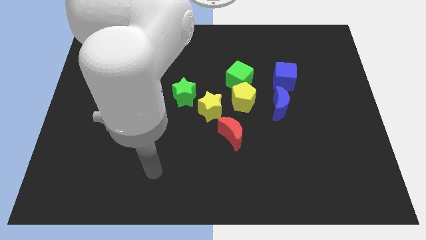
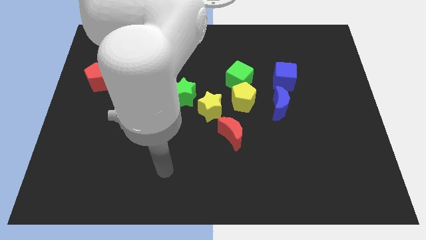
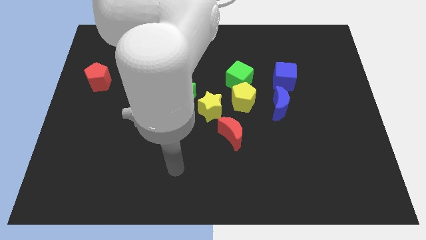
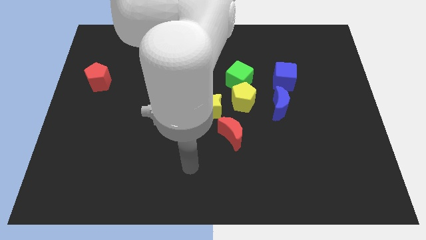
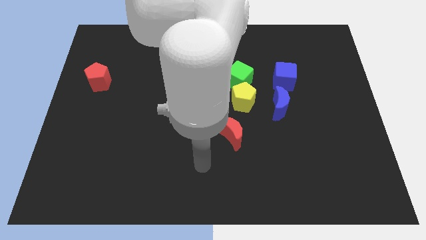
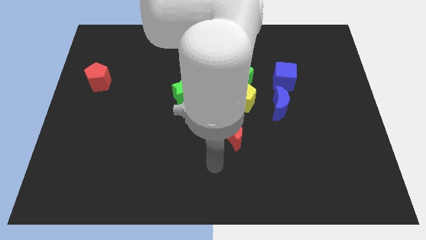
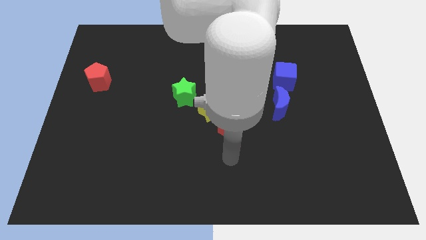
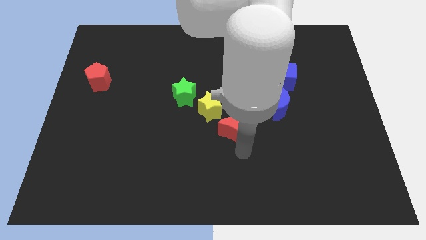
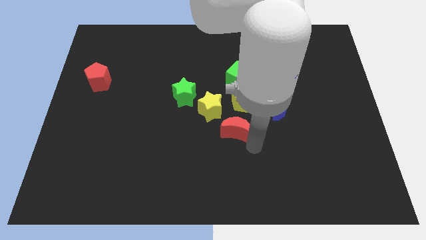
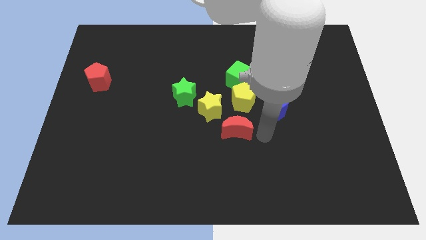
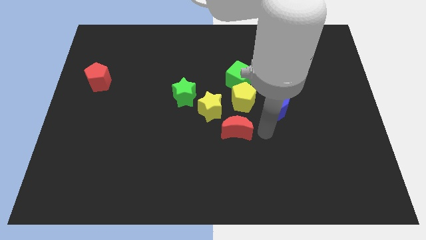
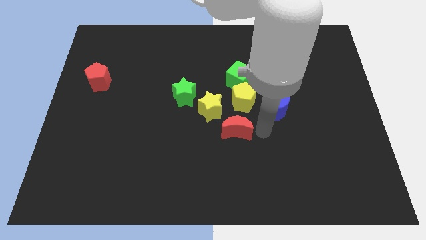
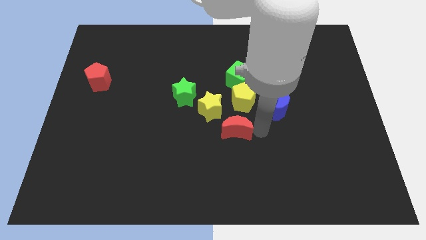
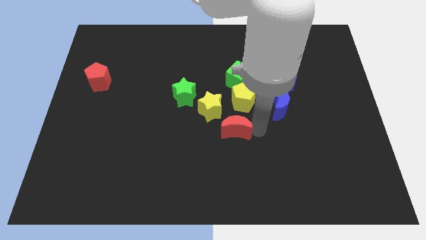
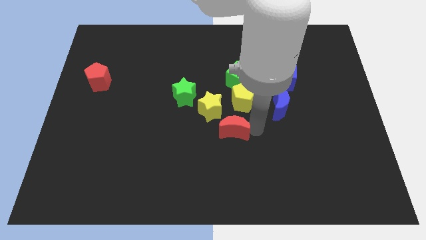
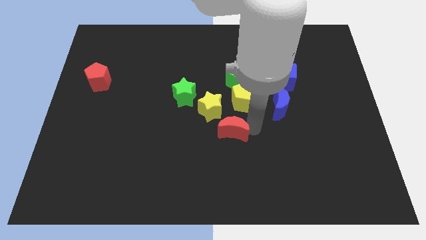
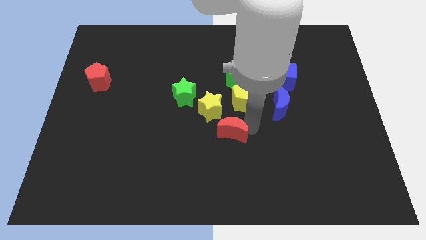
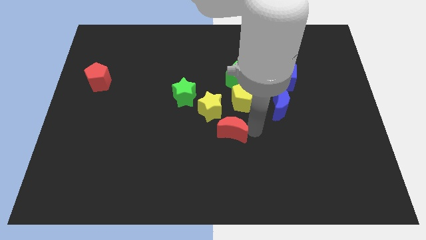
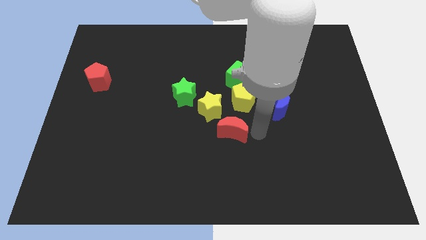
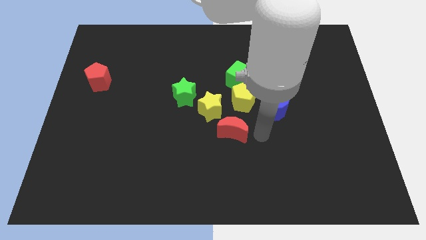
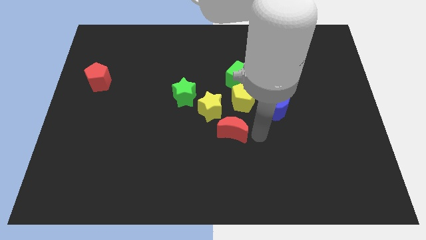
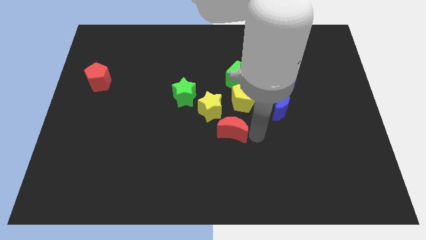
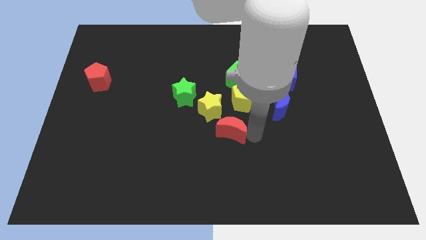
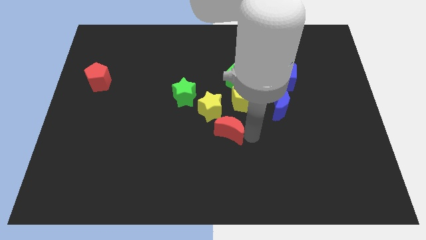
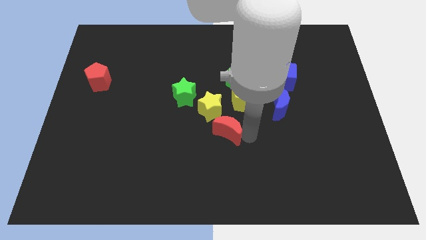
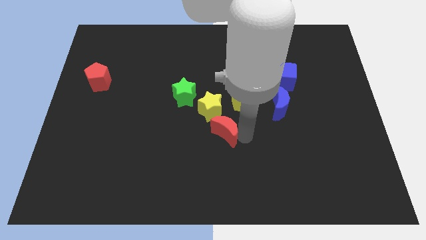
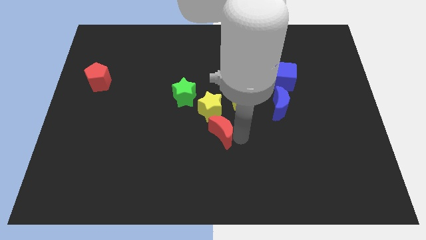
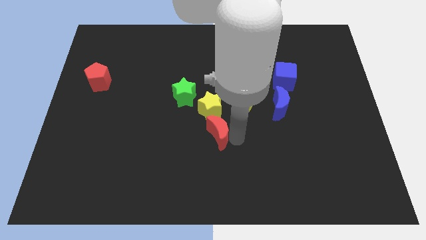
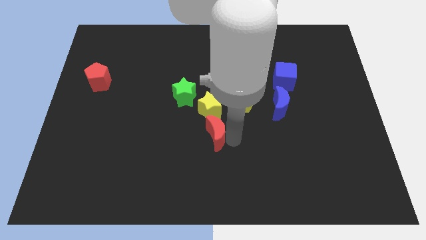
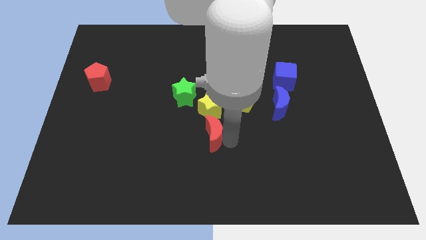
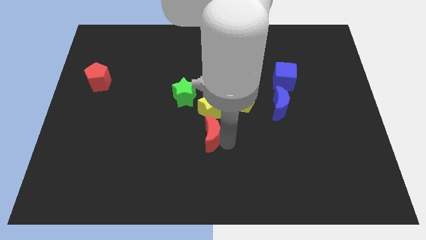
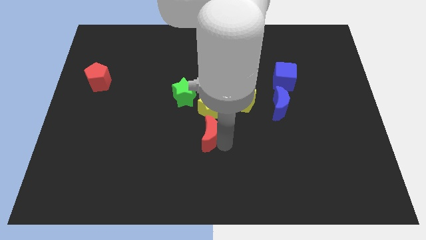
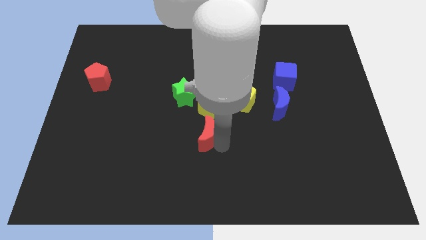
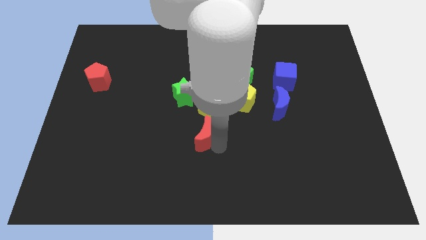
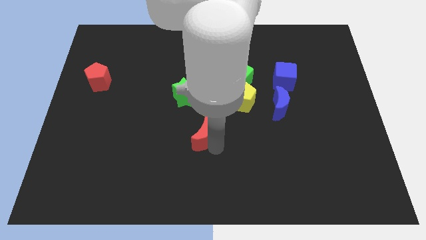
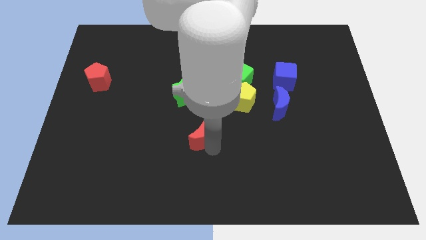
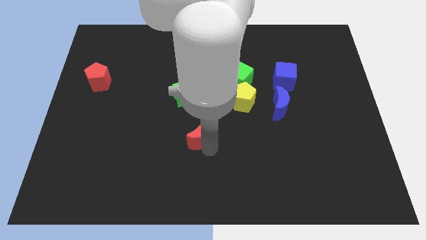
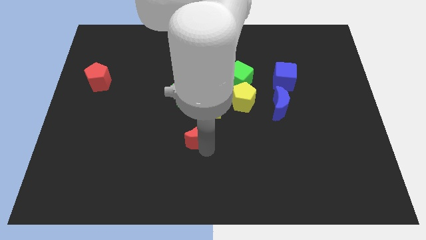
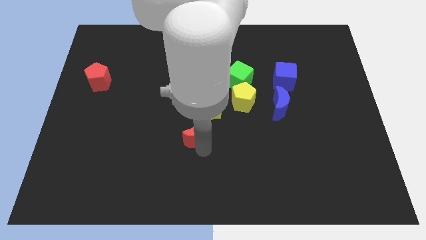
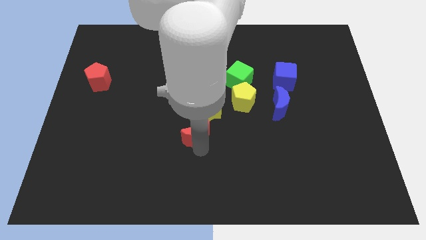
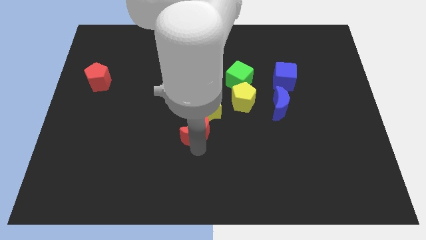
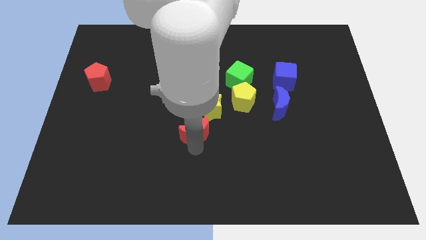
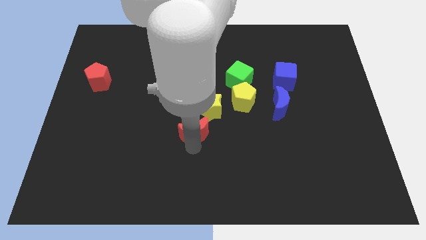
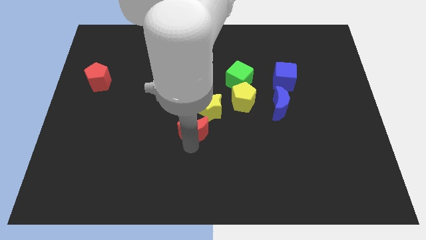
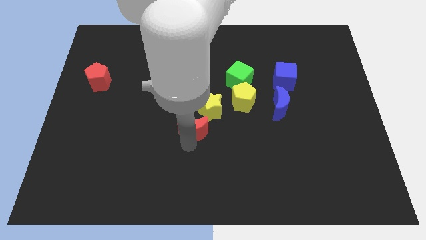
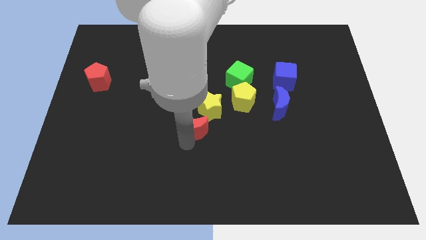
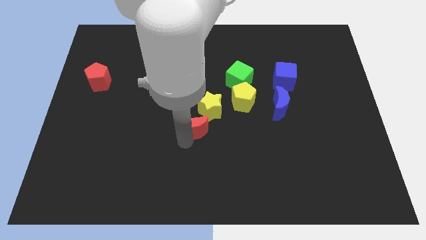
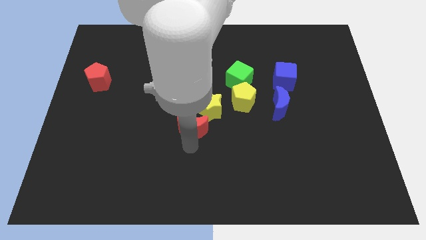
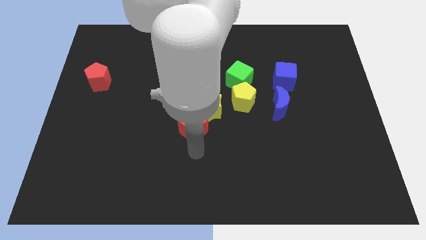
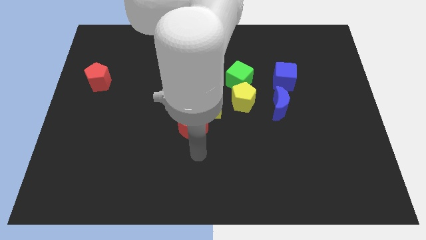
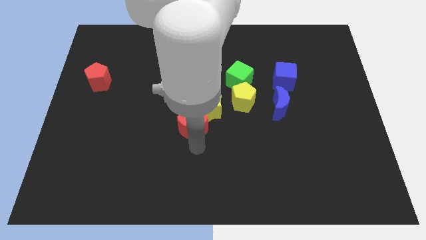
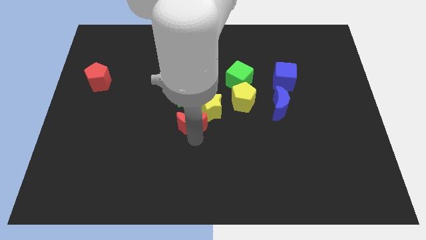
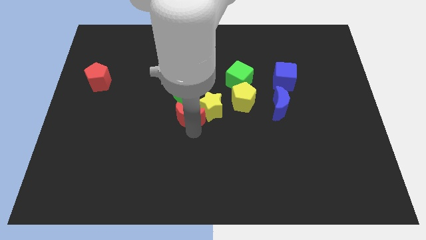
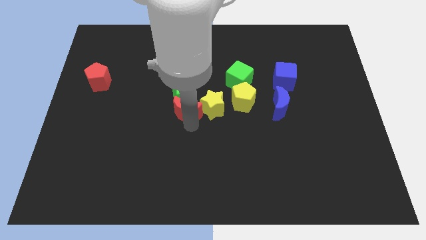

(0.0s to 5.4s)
slide the red moon towards the green star

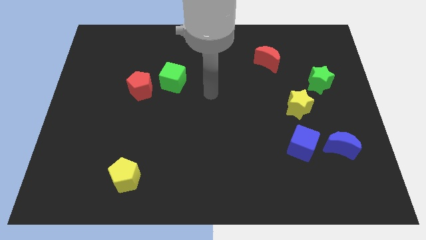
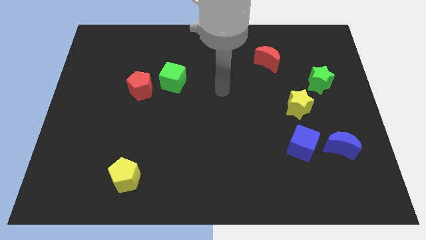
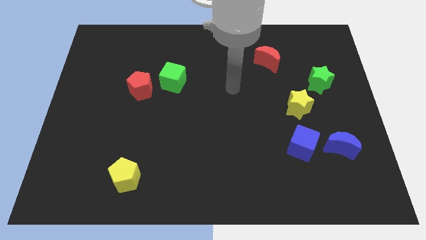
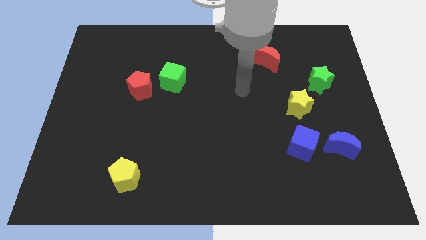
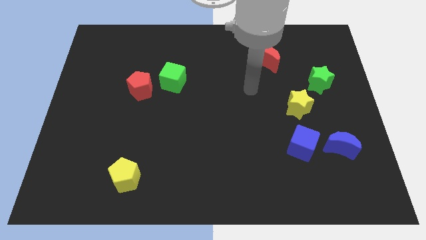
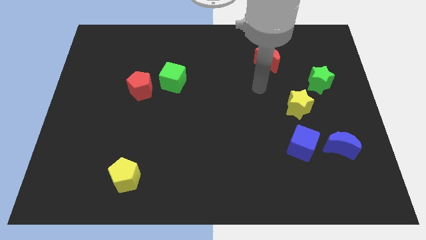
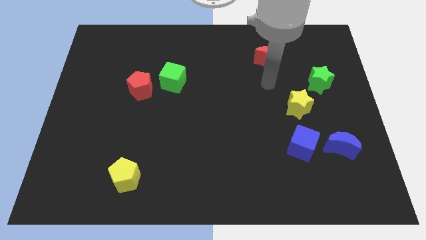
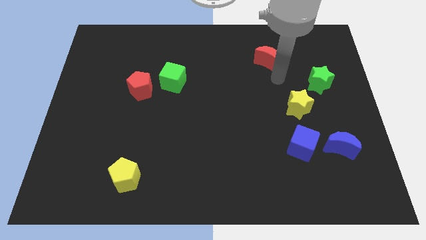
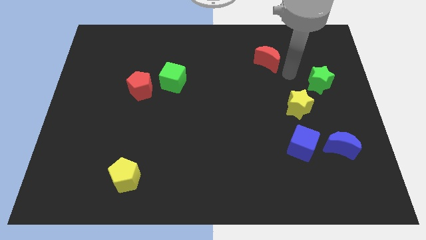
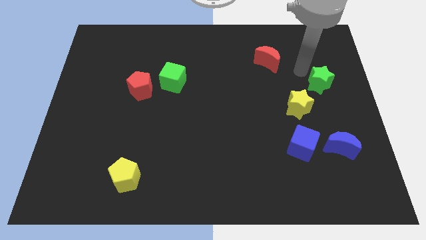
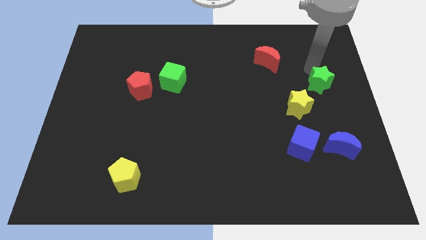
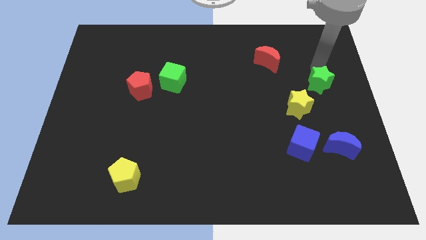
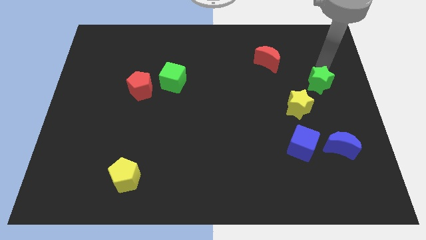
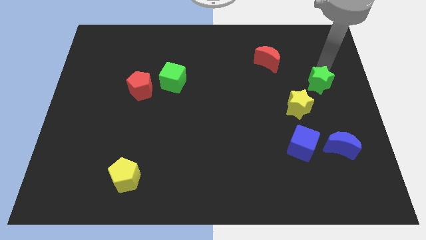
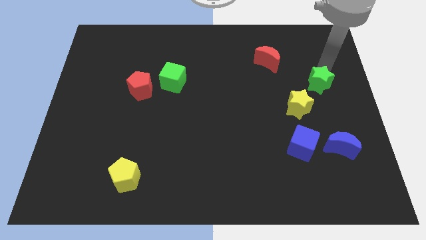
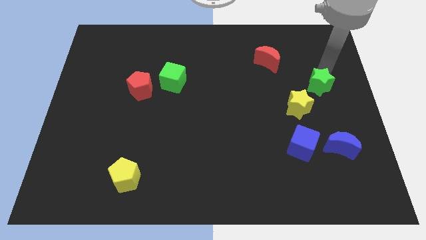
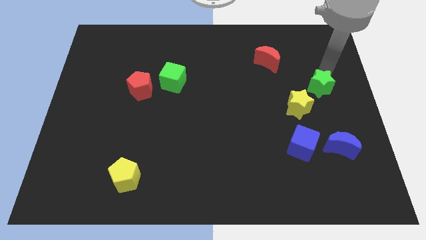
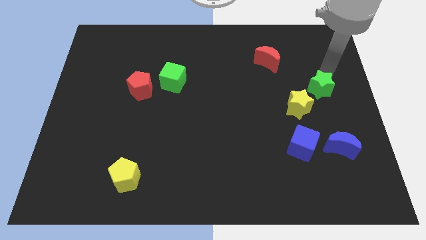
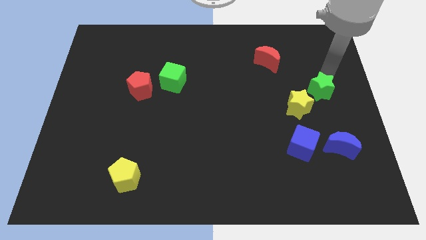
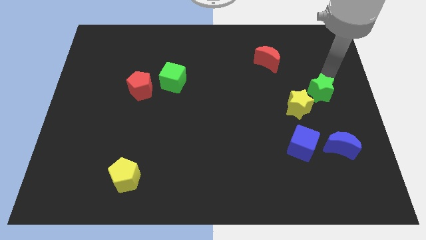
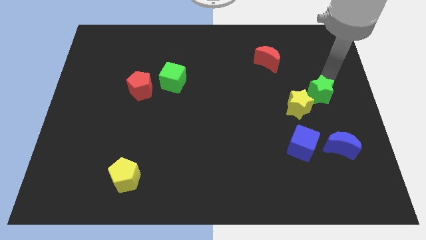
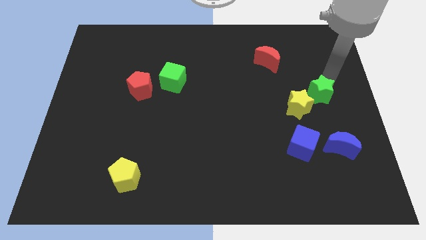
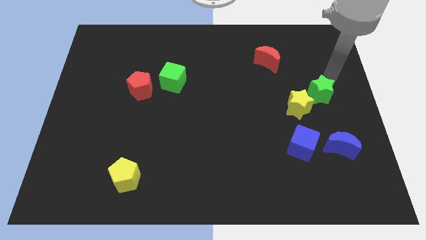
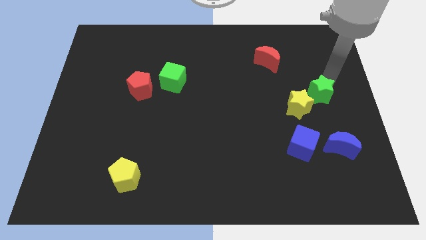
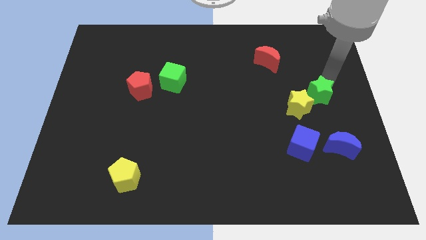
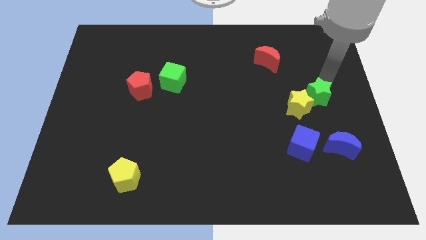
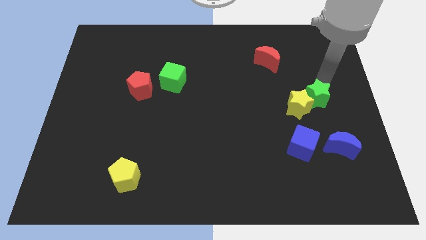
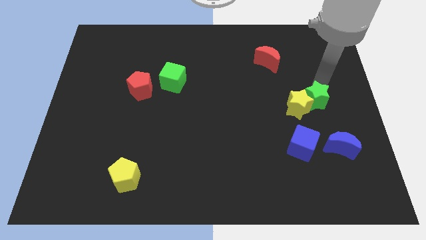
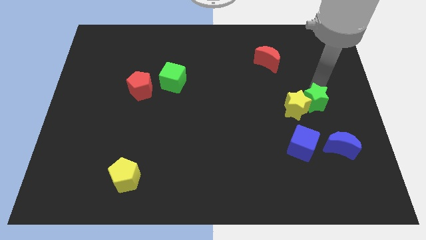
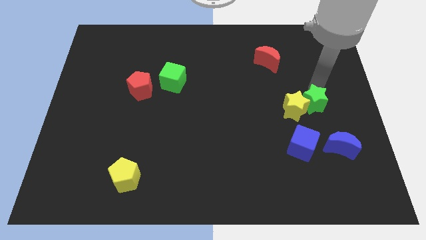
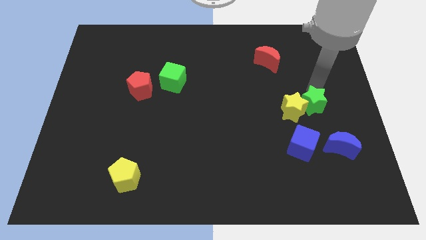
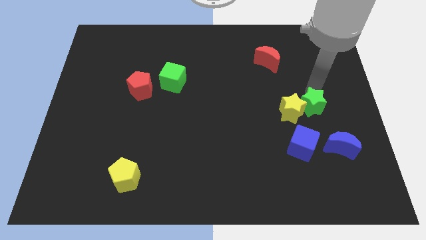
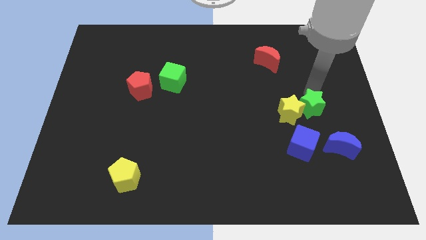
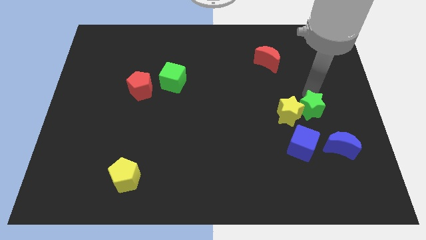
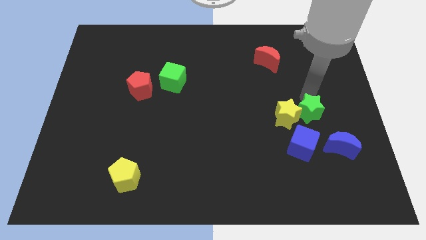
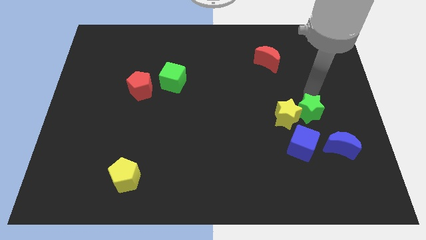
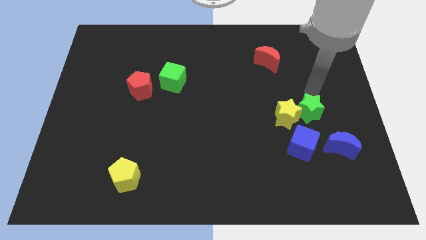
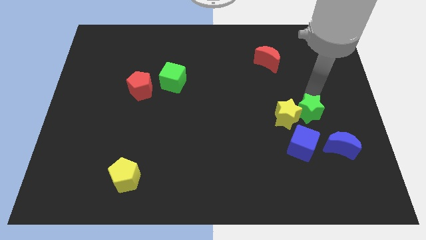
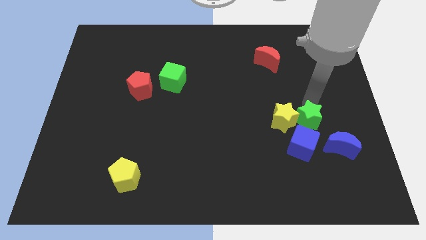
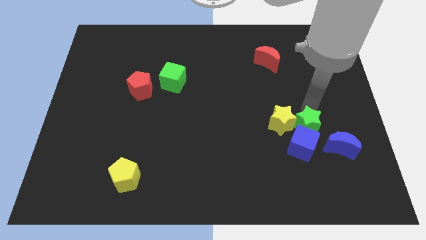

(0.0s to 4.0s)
slide the green star towards the blue cube
